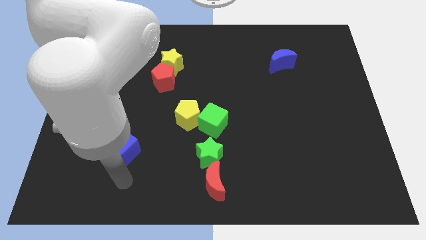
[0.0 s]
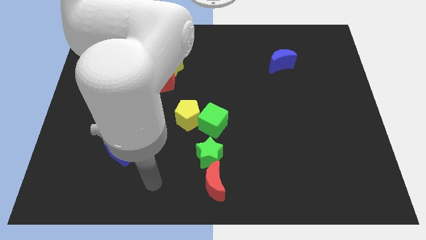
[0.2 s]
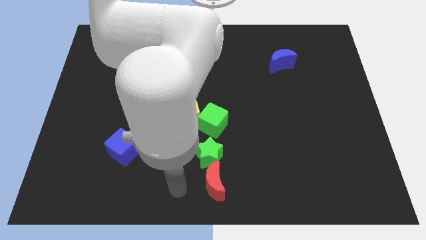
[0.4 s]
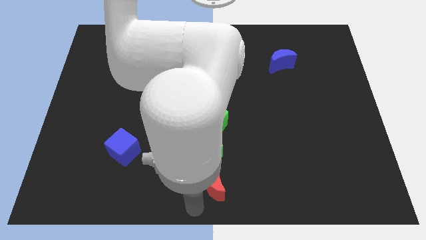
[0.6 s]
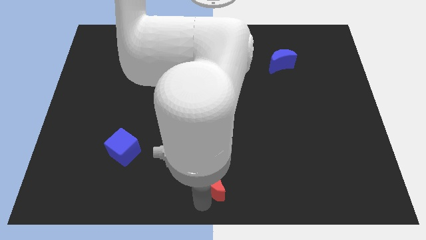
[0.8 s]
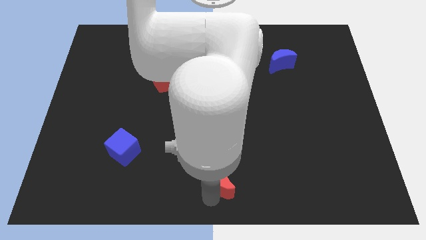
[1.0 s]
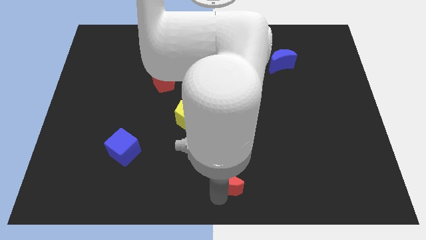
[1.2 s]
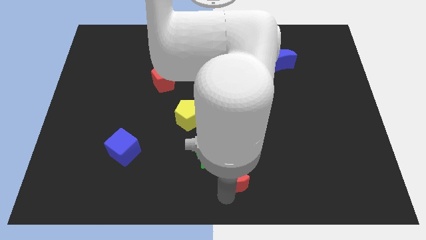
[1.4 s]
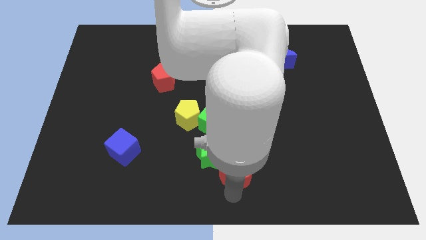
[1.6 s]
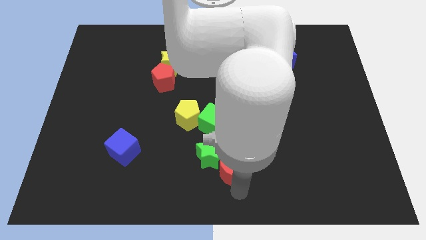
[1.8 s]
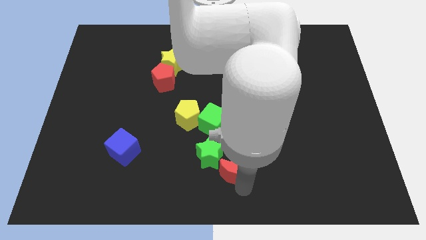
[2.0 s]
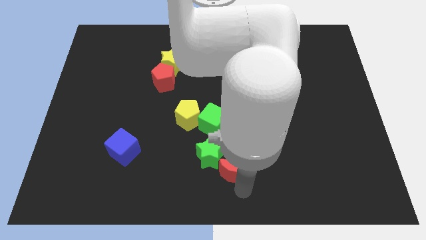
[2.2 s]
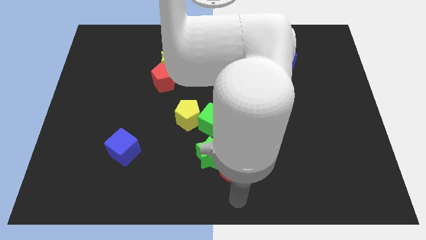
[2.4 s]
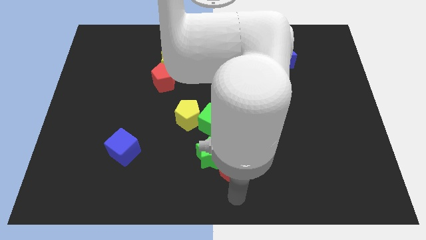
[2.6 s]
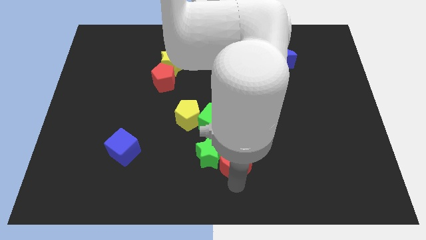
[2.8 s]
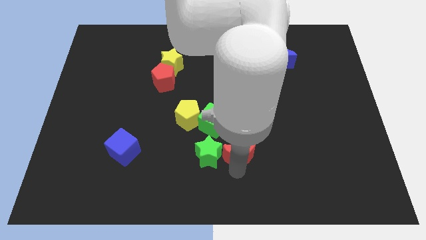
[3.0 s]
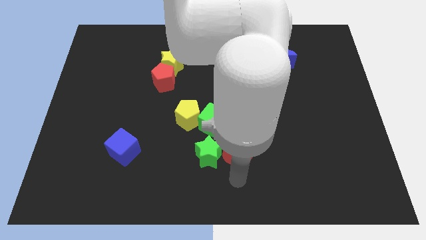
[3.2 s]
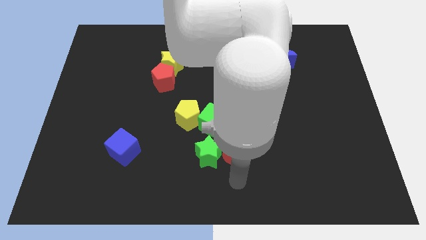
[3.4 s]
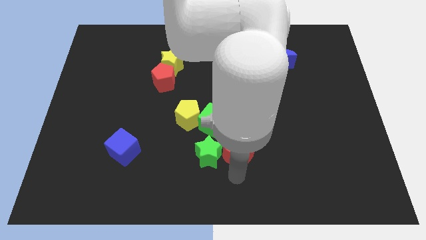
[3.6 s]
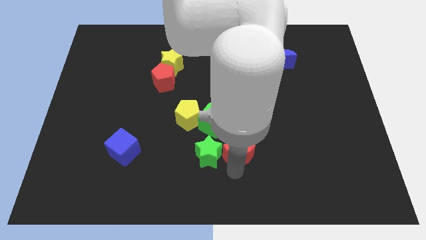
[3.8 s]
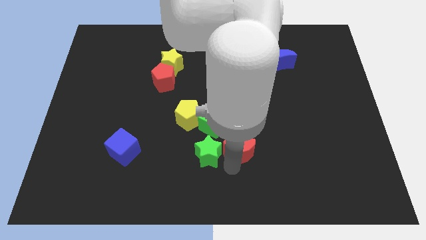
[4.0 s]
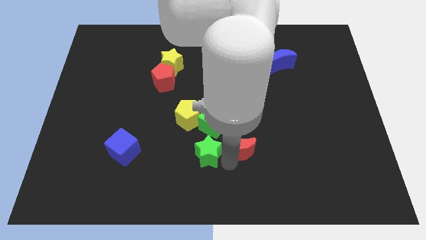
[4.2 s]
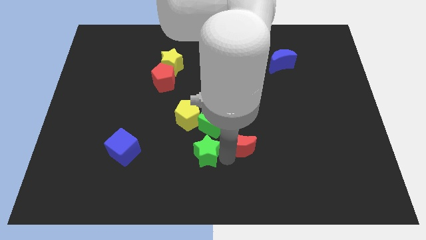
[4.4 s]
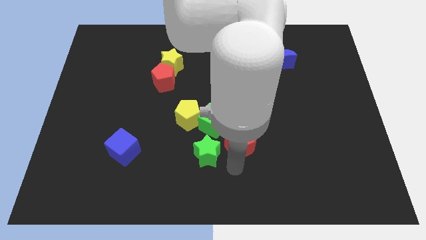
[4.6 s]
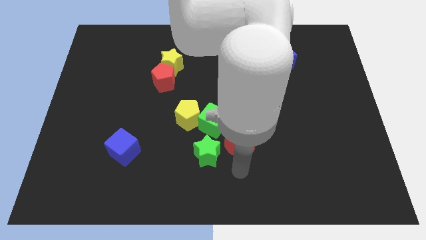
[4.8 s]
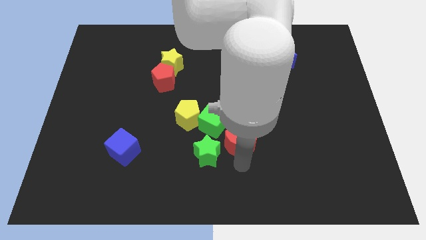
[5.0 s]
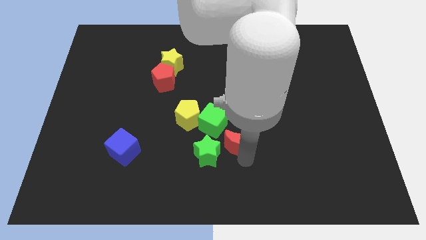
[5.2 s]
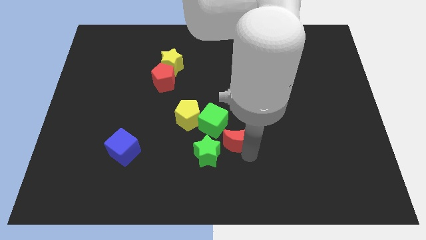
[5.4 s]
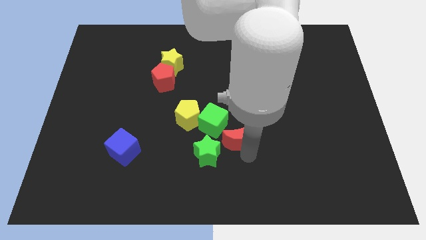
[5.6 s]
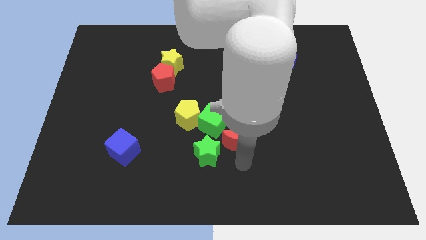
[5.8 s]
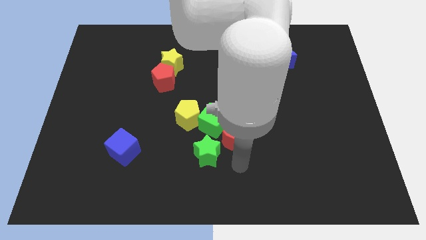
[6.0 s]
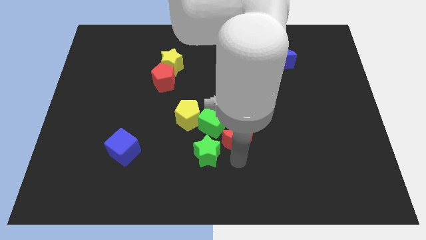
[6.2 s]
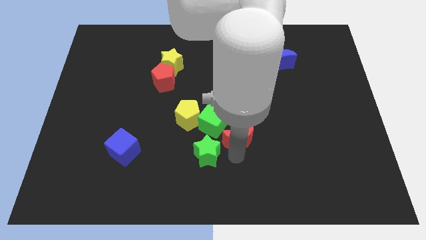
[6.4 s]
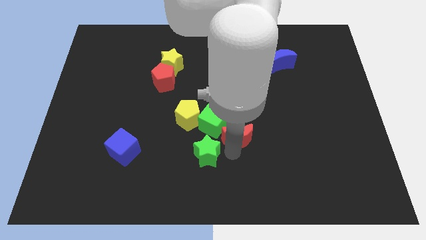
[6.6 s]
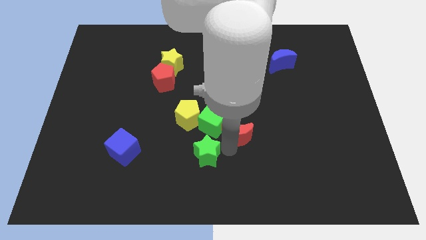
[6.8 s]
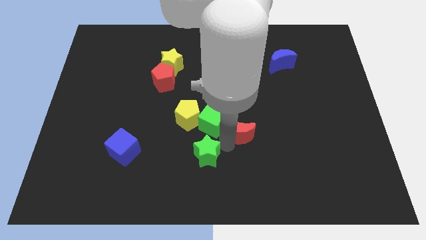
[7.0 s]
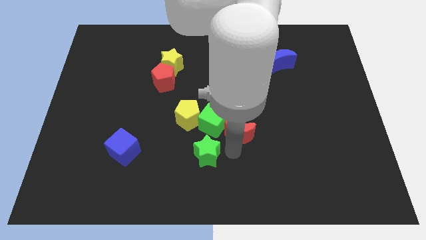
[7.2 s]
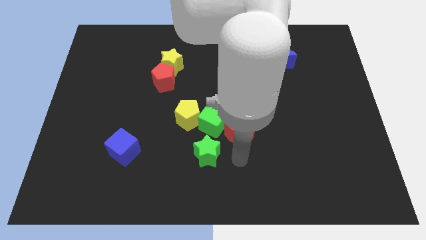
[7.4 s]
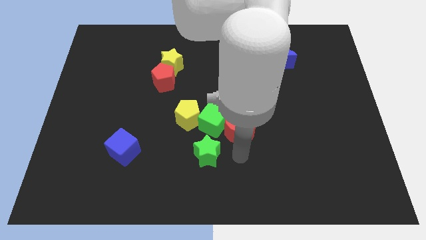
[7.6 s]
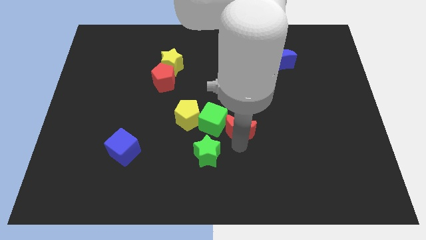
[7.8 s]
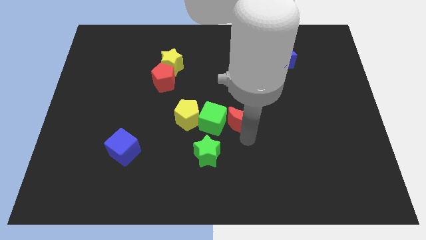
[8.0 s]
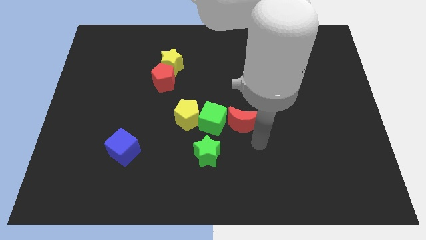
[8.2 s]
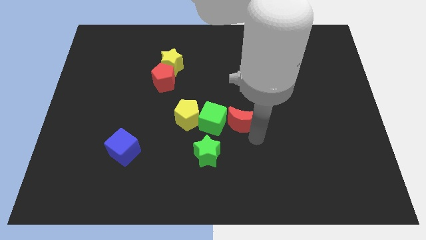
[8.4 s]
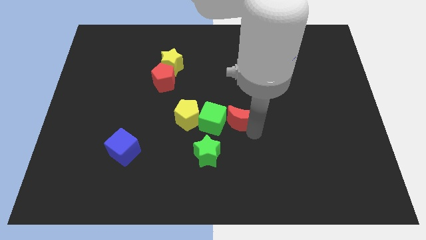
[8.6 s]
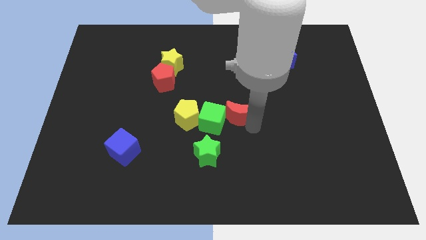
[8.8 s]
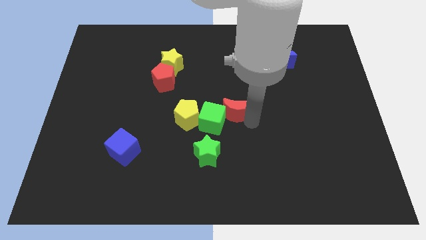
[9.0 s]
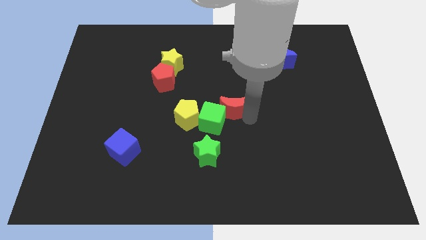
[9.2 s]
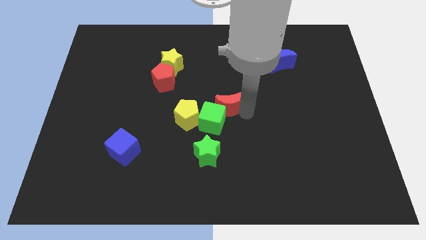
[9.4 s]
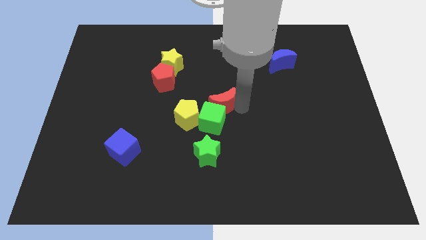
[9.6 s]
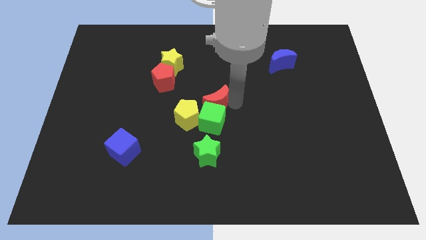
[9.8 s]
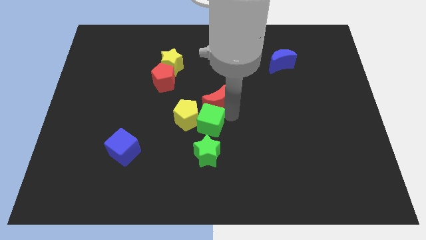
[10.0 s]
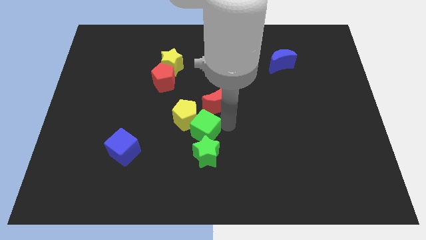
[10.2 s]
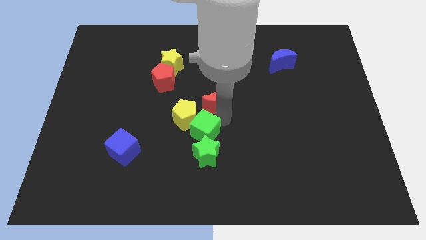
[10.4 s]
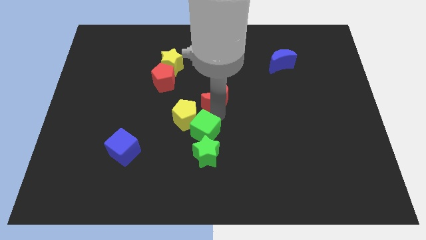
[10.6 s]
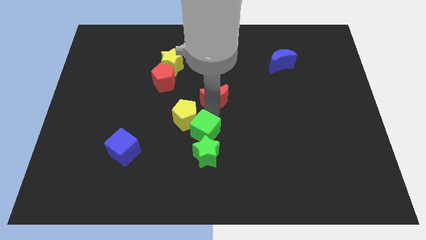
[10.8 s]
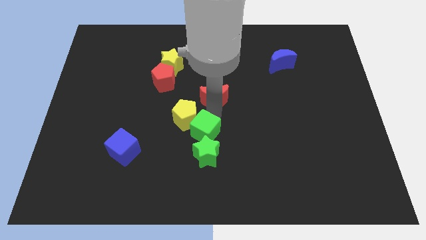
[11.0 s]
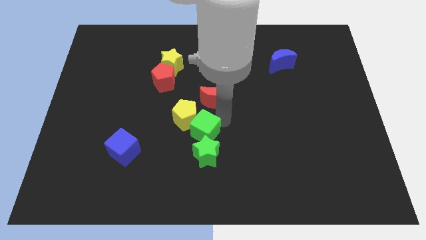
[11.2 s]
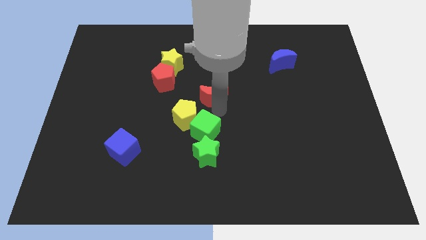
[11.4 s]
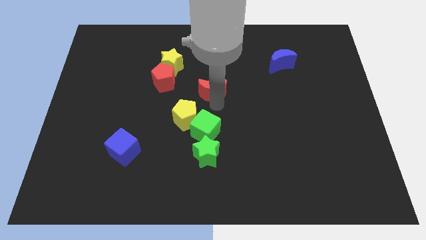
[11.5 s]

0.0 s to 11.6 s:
put the red moon to the right of the red pentagon

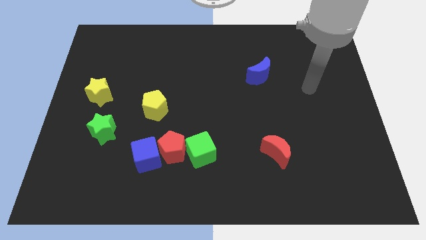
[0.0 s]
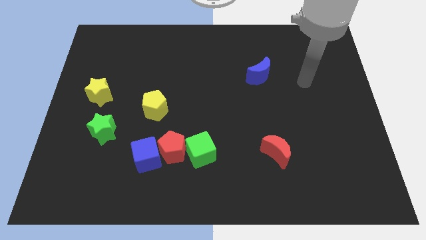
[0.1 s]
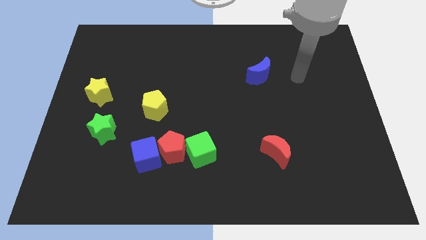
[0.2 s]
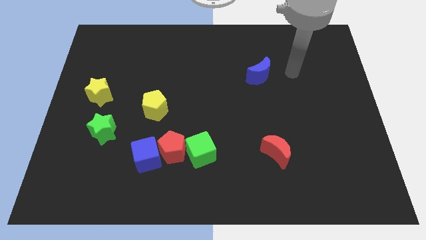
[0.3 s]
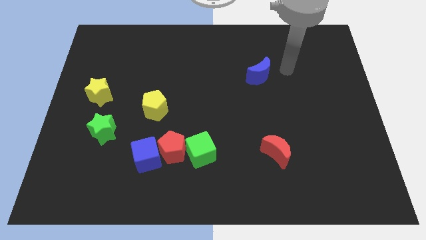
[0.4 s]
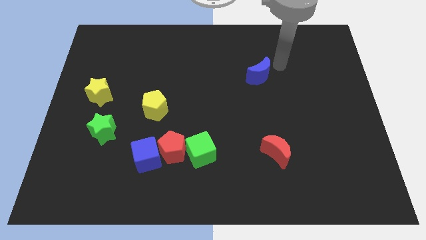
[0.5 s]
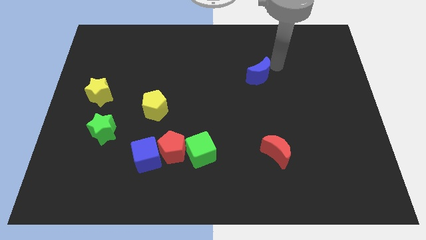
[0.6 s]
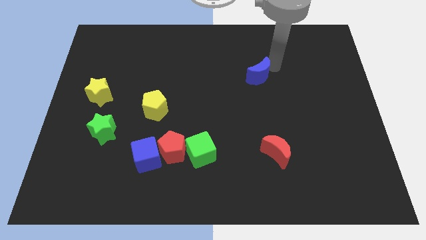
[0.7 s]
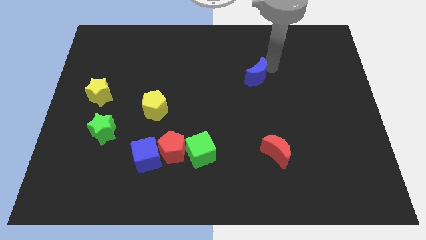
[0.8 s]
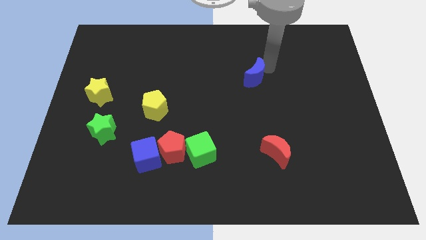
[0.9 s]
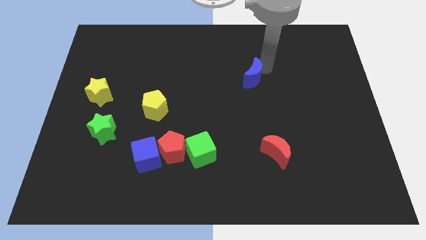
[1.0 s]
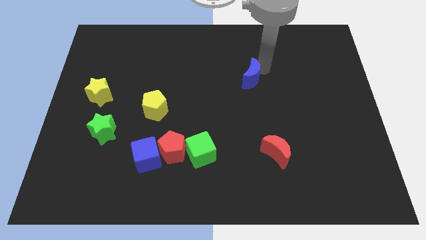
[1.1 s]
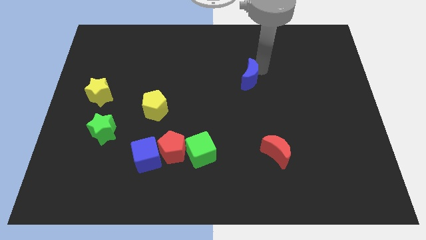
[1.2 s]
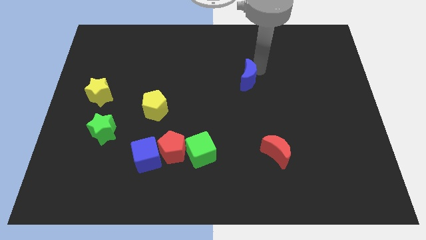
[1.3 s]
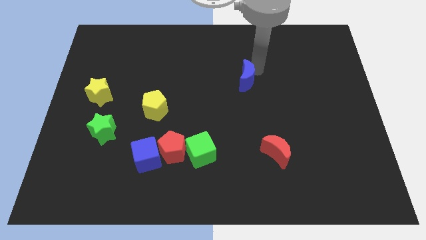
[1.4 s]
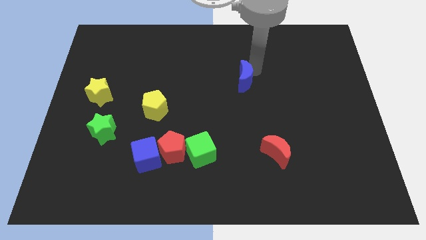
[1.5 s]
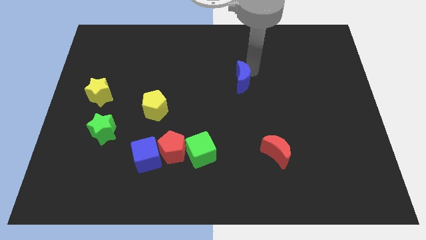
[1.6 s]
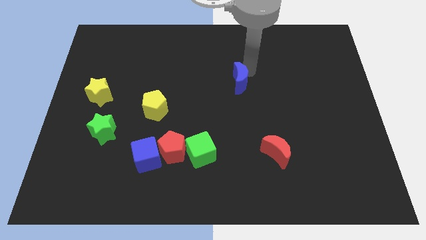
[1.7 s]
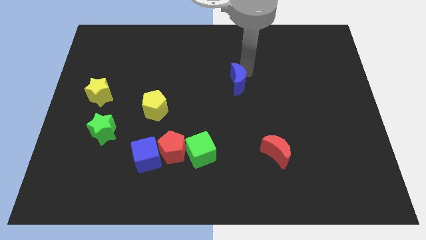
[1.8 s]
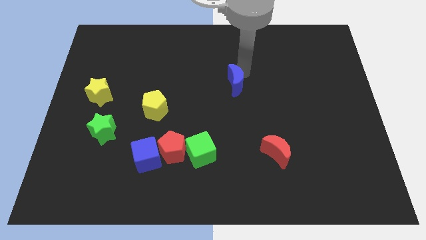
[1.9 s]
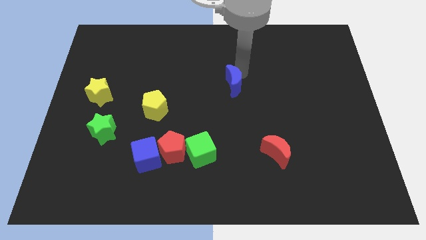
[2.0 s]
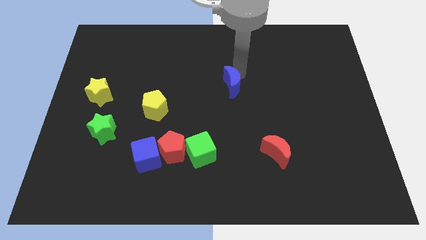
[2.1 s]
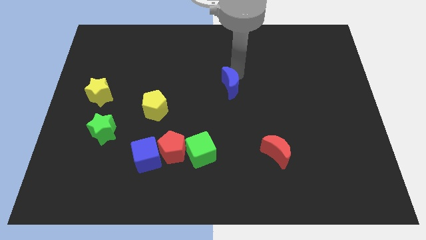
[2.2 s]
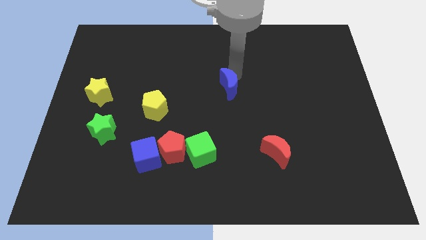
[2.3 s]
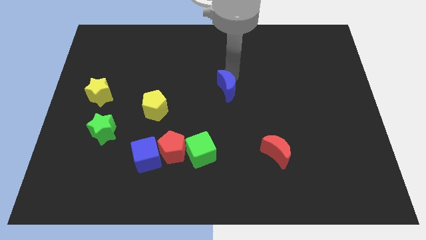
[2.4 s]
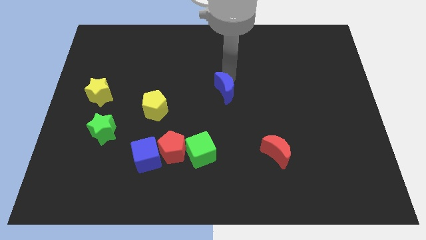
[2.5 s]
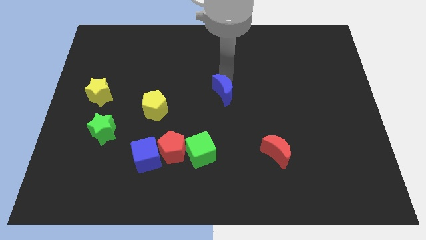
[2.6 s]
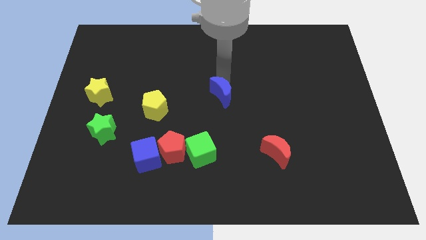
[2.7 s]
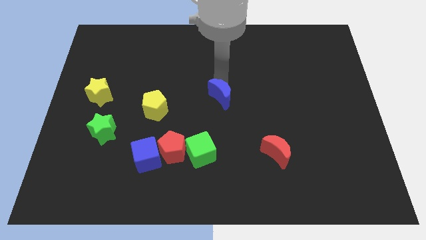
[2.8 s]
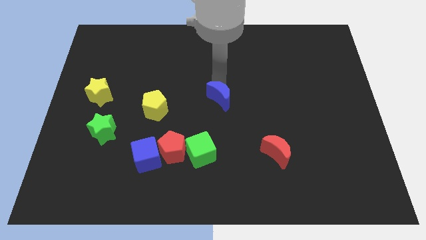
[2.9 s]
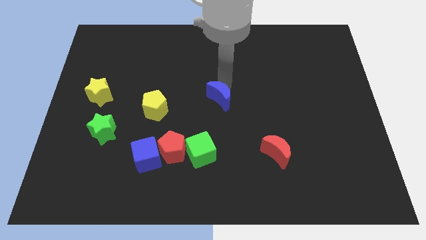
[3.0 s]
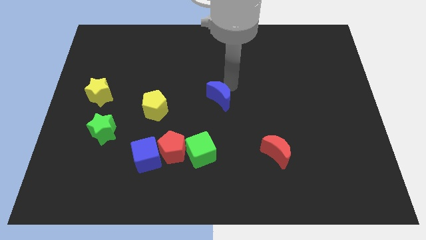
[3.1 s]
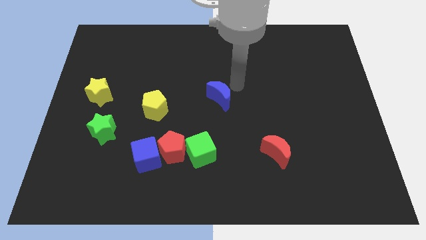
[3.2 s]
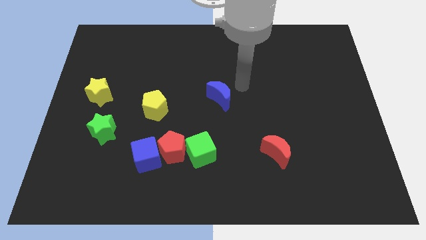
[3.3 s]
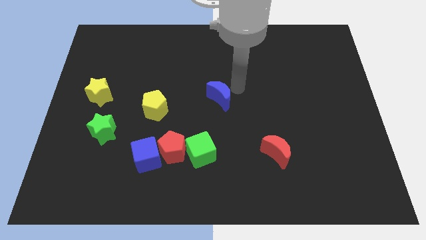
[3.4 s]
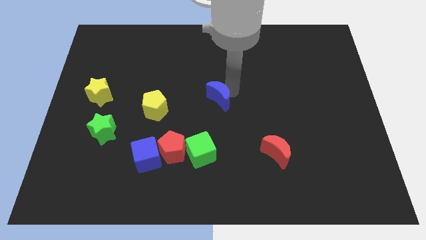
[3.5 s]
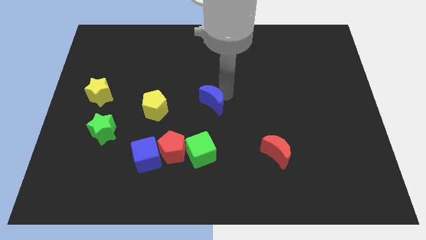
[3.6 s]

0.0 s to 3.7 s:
slide the blue moon right of the yellow pentagon
